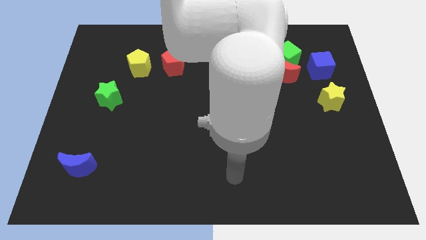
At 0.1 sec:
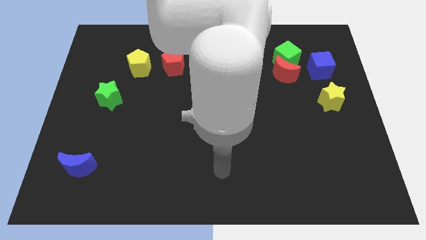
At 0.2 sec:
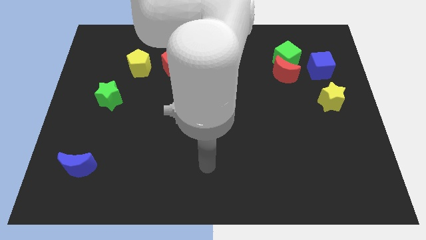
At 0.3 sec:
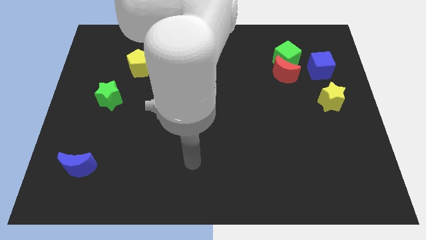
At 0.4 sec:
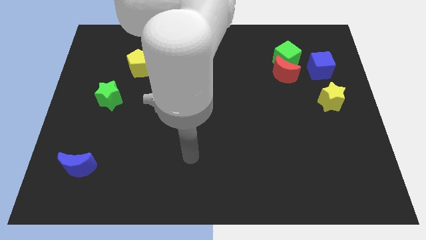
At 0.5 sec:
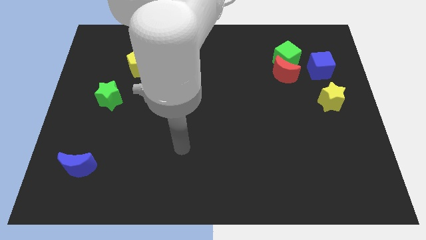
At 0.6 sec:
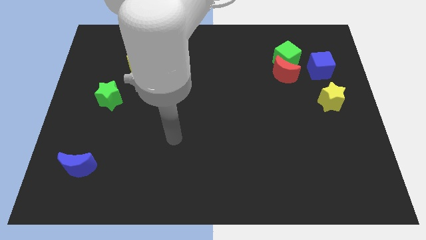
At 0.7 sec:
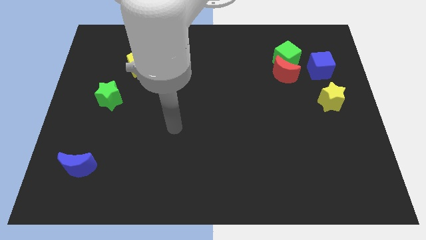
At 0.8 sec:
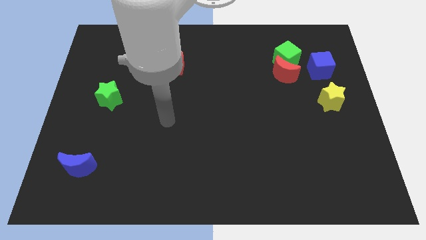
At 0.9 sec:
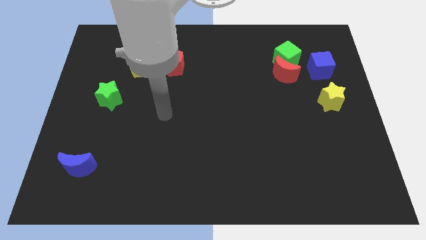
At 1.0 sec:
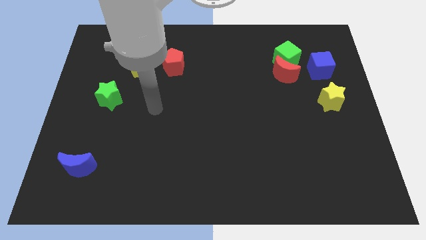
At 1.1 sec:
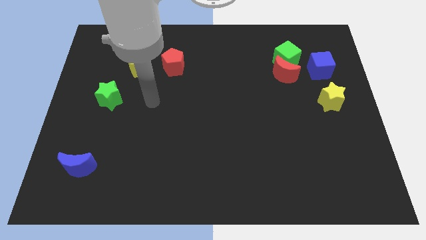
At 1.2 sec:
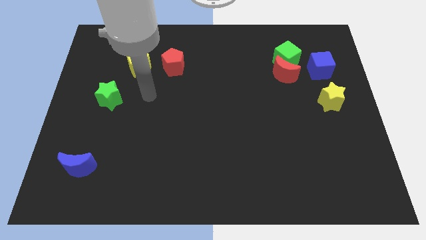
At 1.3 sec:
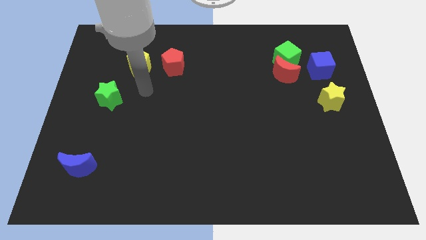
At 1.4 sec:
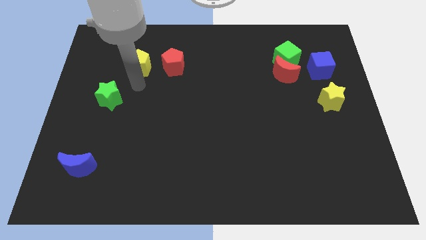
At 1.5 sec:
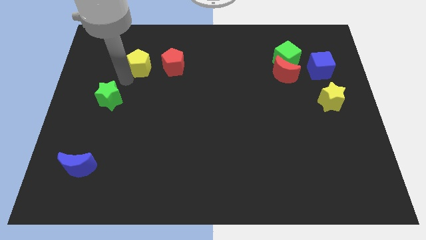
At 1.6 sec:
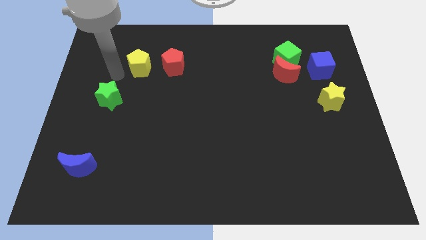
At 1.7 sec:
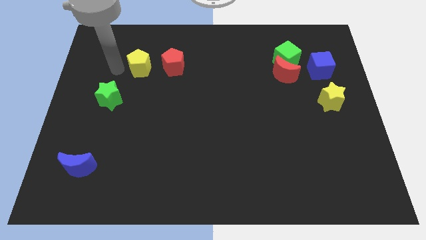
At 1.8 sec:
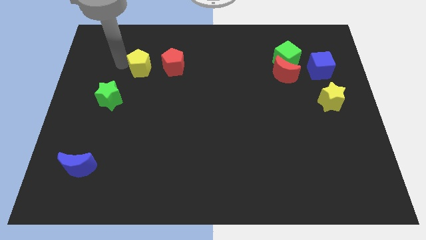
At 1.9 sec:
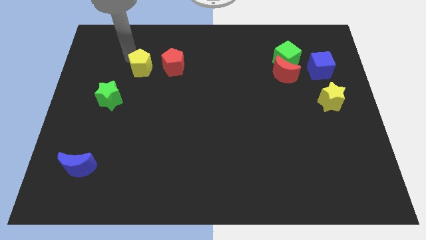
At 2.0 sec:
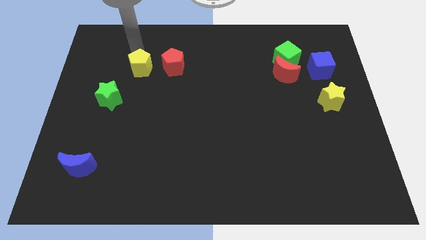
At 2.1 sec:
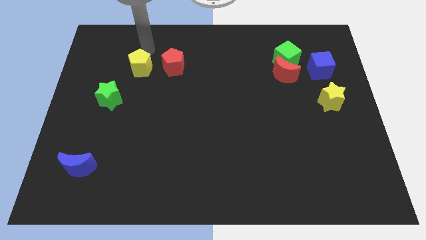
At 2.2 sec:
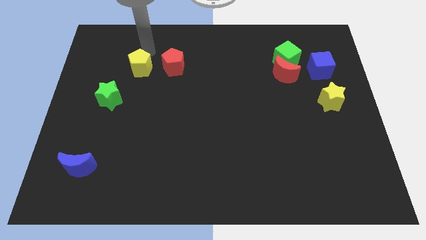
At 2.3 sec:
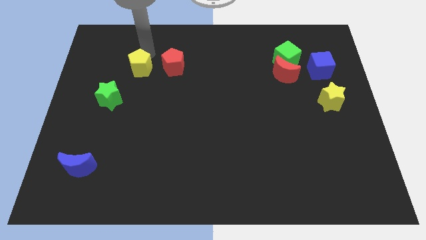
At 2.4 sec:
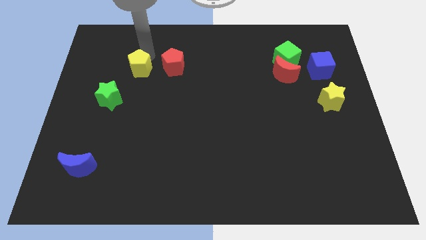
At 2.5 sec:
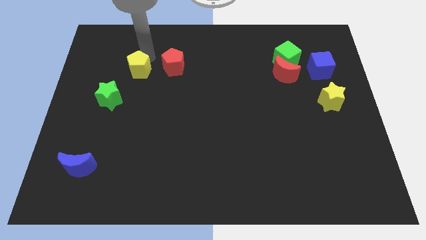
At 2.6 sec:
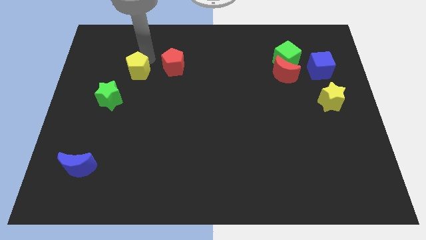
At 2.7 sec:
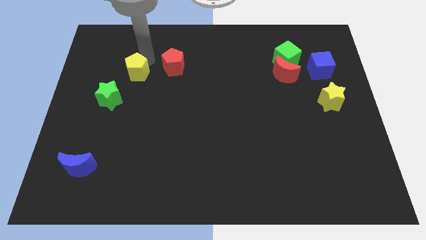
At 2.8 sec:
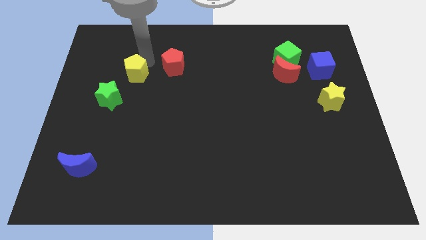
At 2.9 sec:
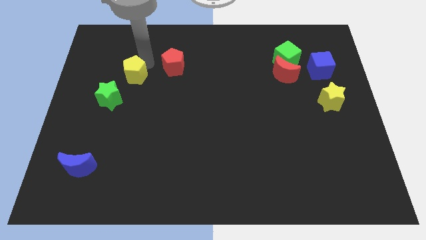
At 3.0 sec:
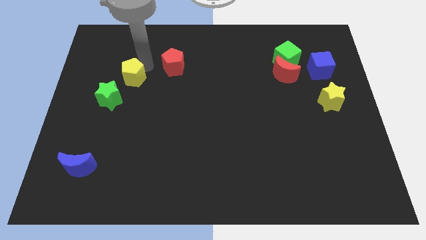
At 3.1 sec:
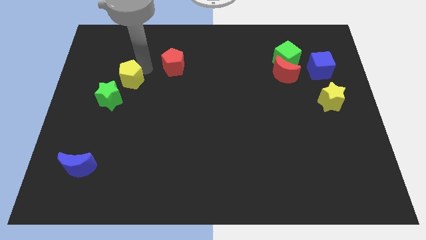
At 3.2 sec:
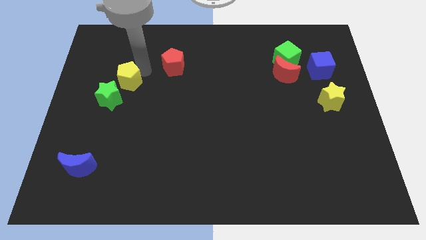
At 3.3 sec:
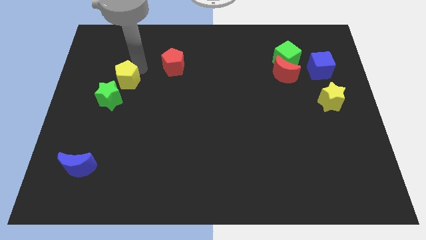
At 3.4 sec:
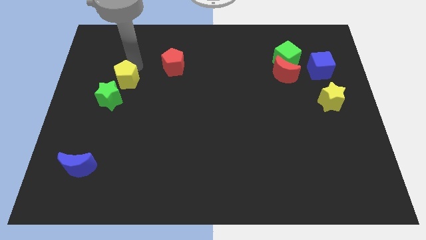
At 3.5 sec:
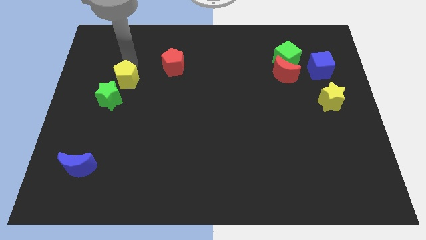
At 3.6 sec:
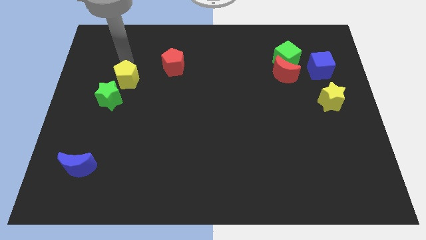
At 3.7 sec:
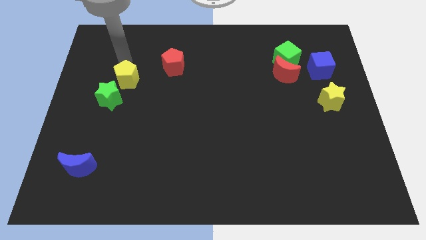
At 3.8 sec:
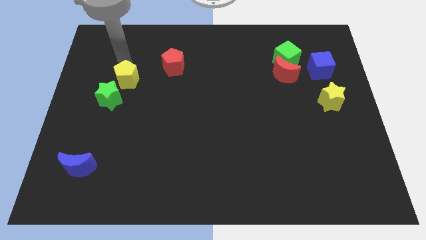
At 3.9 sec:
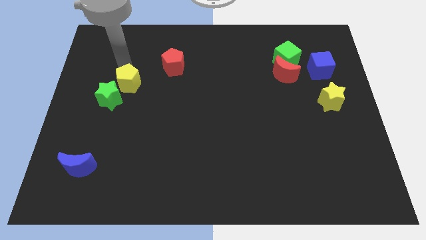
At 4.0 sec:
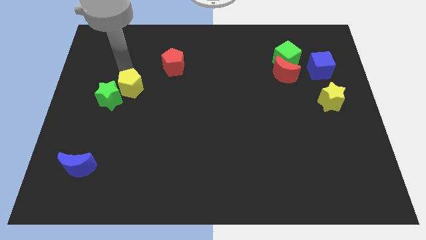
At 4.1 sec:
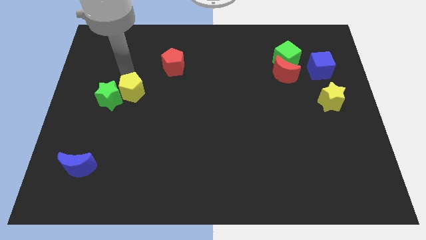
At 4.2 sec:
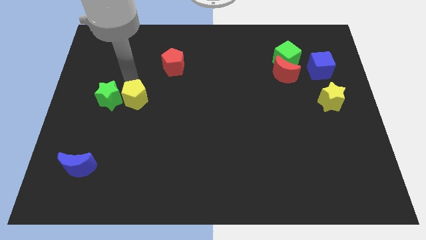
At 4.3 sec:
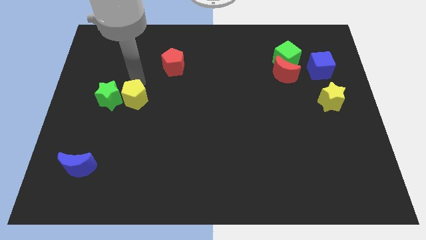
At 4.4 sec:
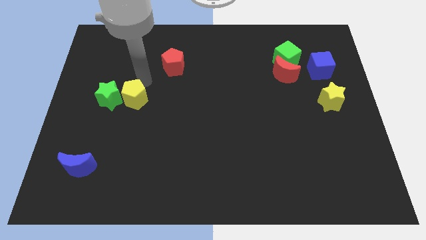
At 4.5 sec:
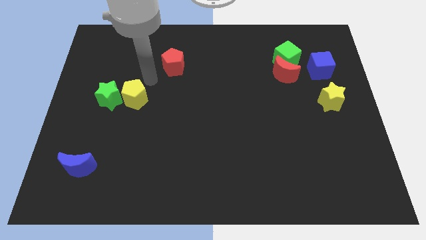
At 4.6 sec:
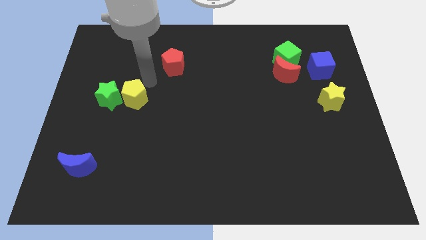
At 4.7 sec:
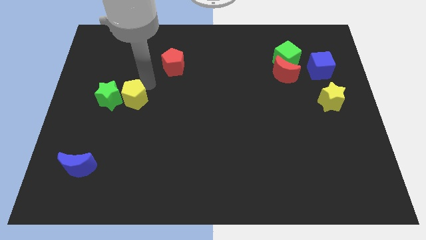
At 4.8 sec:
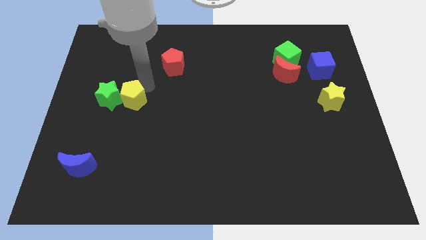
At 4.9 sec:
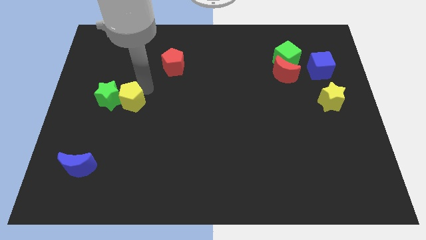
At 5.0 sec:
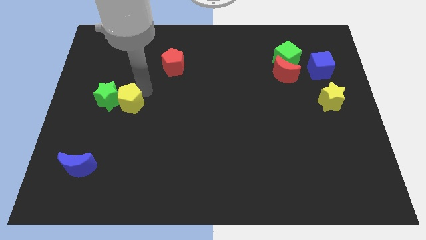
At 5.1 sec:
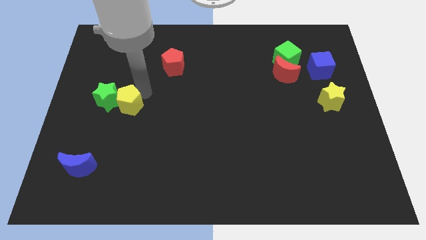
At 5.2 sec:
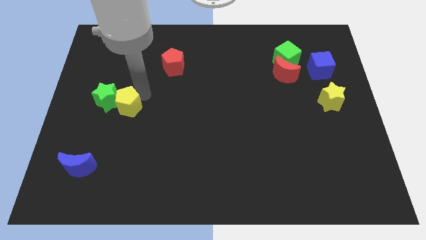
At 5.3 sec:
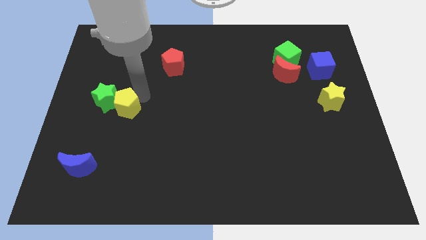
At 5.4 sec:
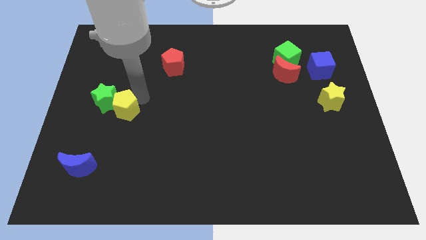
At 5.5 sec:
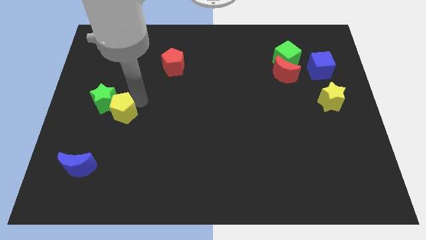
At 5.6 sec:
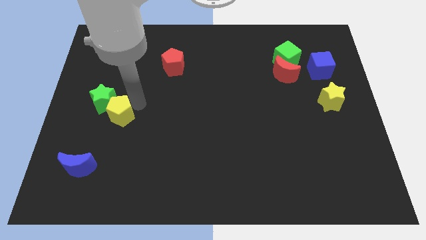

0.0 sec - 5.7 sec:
put the yellow pentagon to the bottom of the green star

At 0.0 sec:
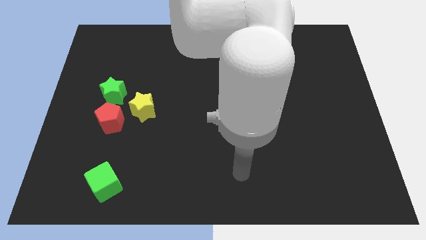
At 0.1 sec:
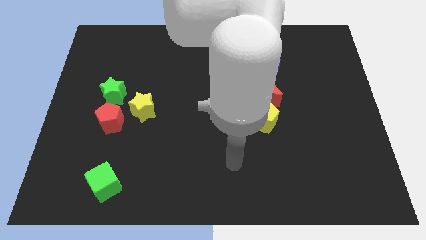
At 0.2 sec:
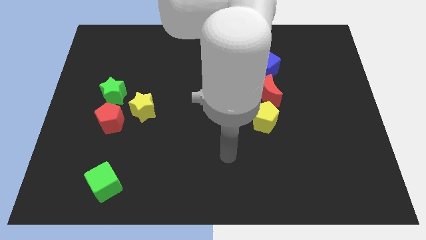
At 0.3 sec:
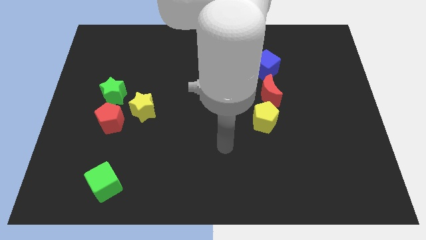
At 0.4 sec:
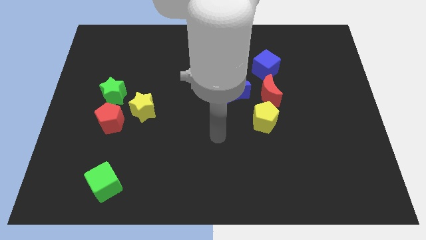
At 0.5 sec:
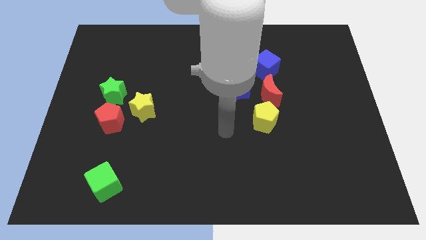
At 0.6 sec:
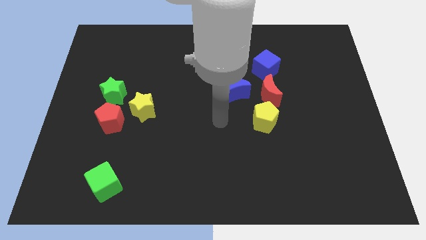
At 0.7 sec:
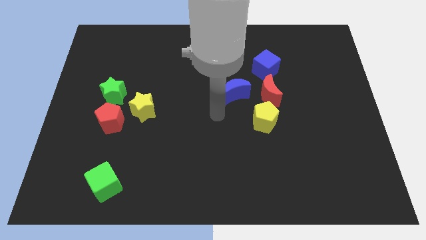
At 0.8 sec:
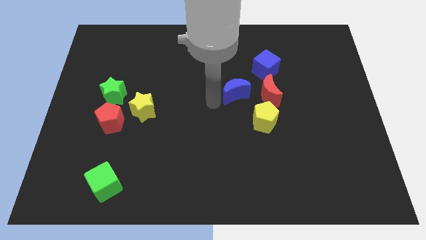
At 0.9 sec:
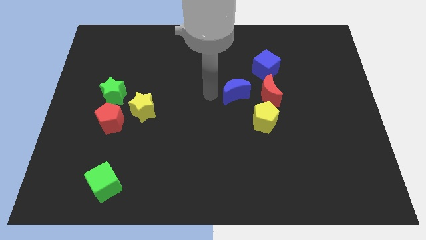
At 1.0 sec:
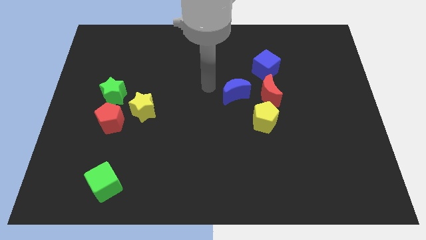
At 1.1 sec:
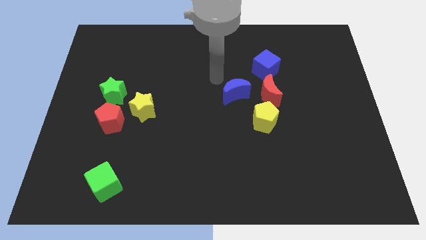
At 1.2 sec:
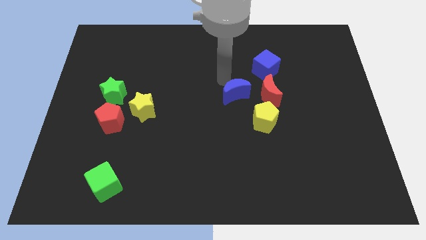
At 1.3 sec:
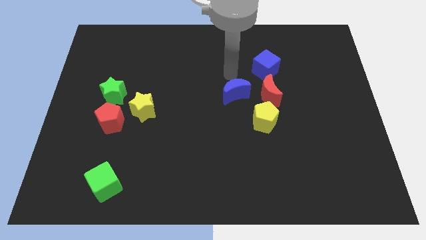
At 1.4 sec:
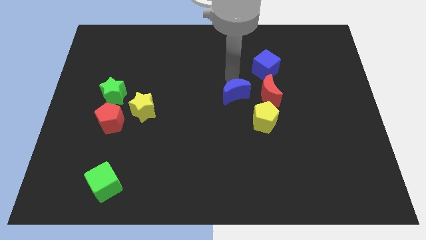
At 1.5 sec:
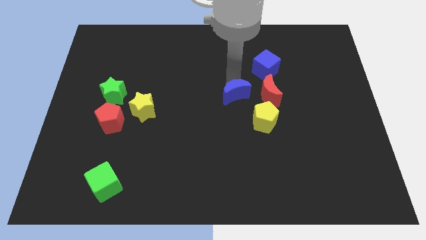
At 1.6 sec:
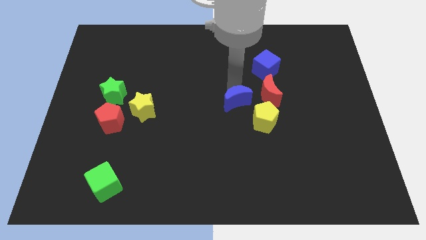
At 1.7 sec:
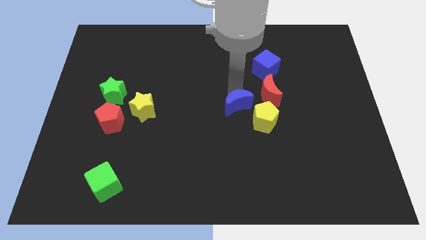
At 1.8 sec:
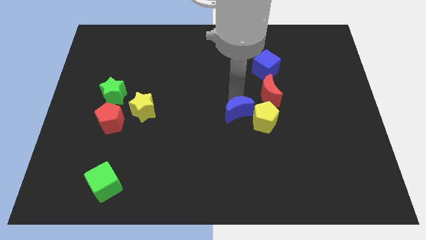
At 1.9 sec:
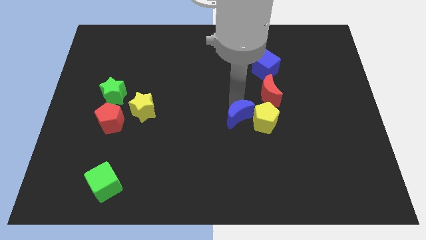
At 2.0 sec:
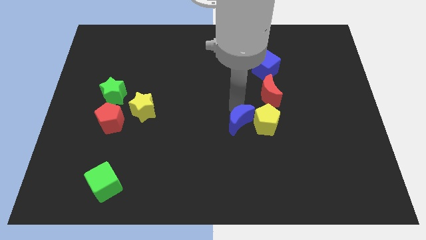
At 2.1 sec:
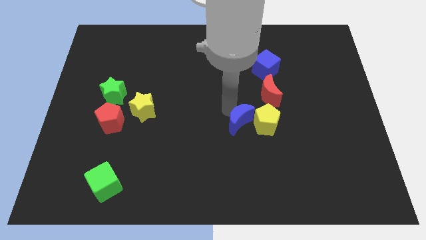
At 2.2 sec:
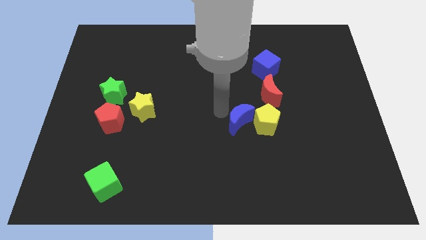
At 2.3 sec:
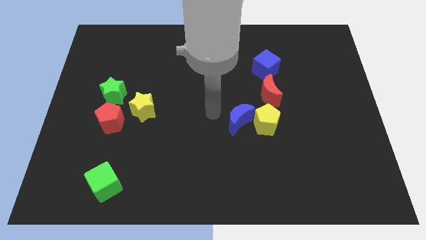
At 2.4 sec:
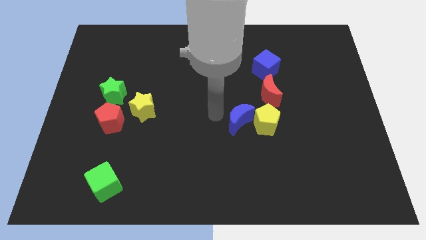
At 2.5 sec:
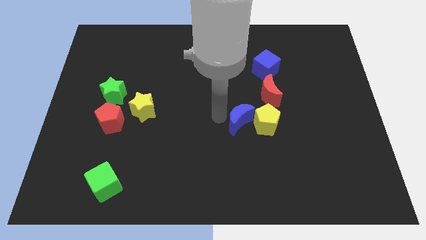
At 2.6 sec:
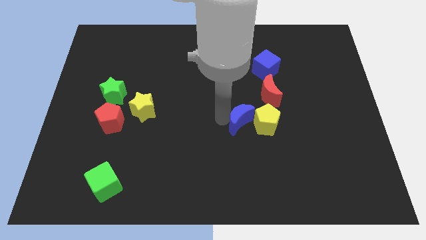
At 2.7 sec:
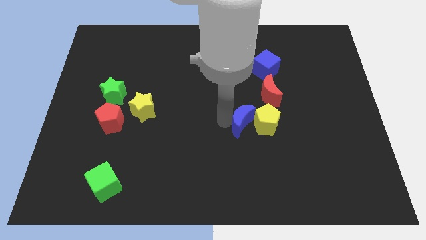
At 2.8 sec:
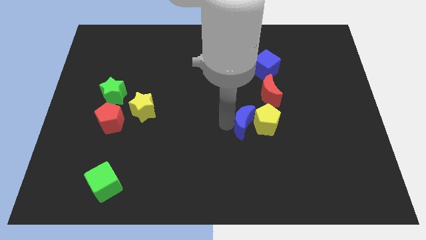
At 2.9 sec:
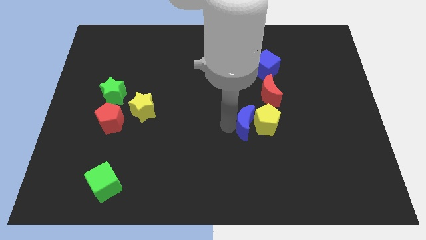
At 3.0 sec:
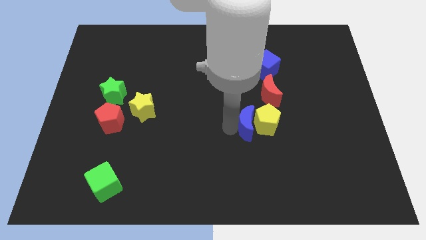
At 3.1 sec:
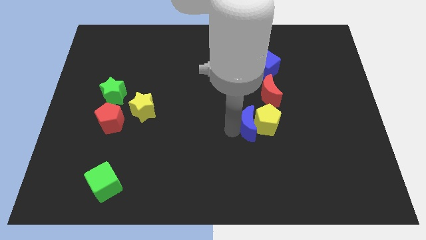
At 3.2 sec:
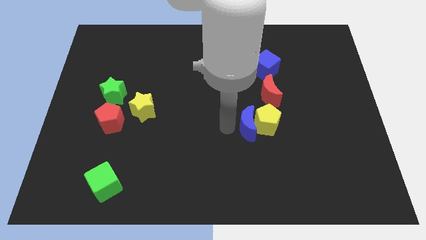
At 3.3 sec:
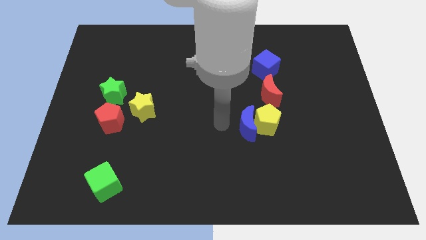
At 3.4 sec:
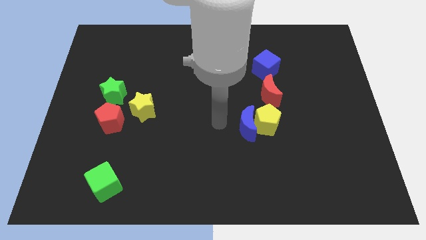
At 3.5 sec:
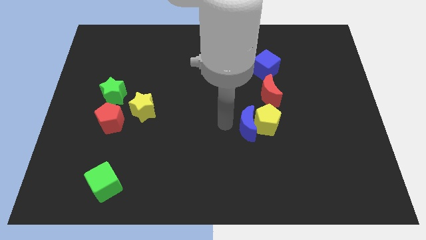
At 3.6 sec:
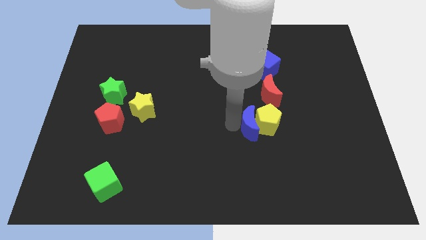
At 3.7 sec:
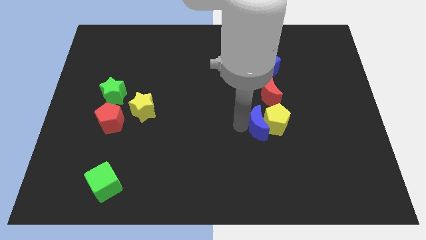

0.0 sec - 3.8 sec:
slide the blue moon below the red moon
